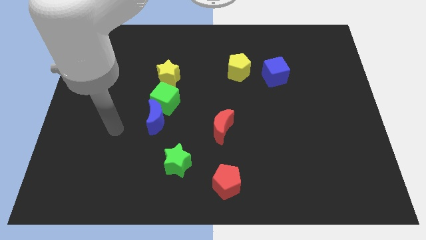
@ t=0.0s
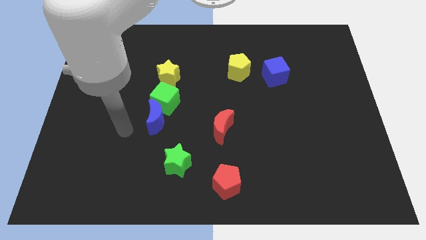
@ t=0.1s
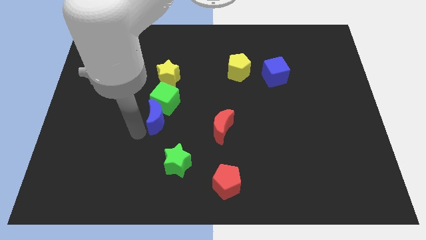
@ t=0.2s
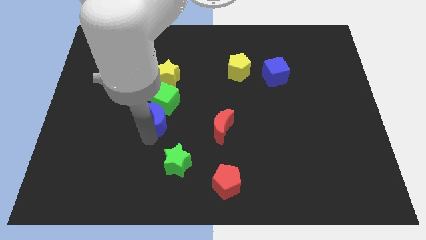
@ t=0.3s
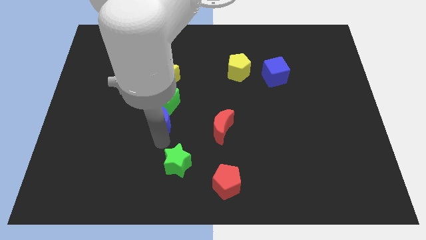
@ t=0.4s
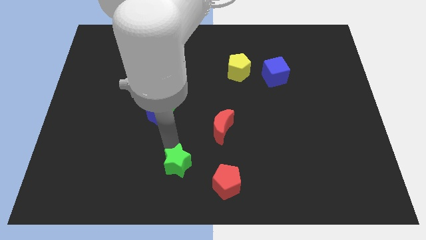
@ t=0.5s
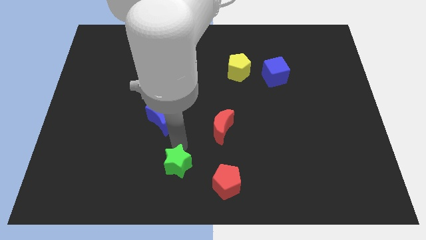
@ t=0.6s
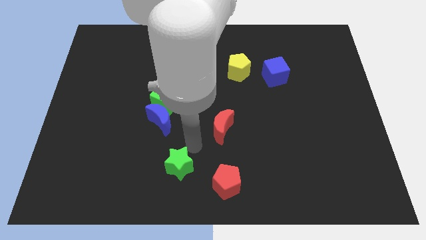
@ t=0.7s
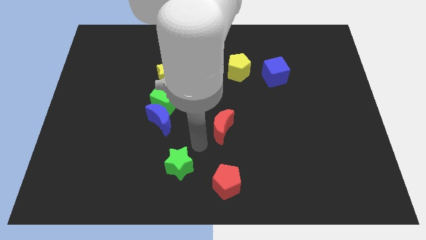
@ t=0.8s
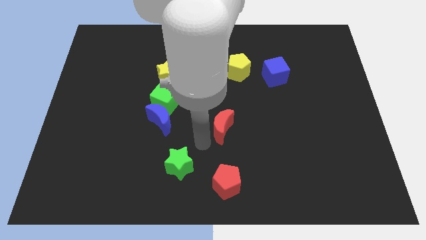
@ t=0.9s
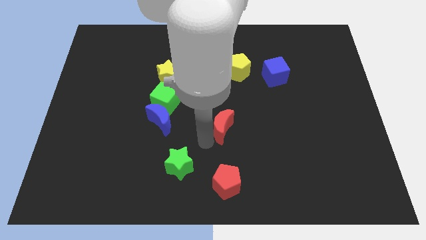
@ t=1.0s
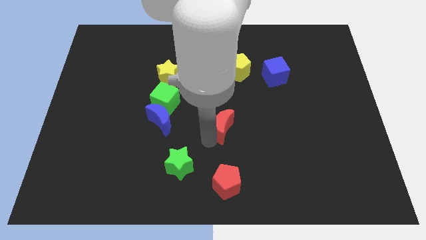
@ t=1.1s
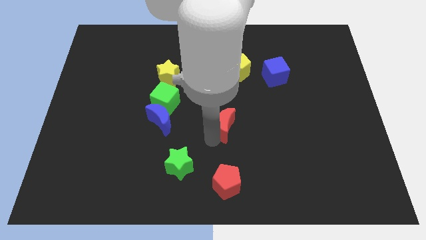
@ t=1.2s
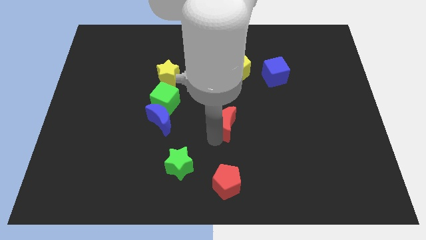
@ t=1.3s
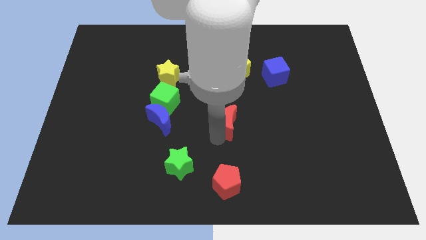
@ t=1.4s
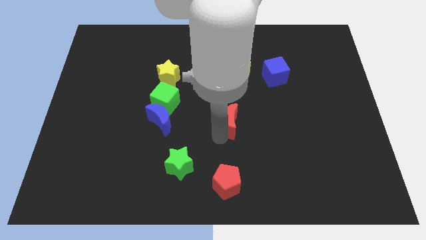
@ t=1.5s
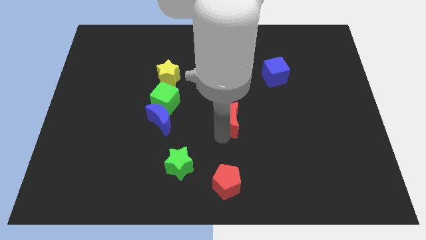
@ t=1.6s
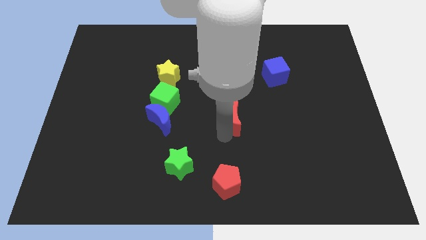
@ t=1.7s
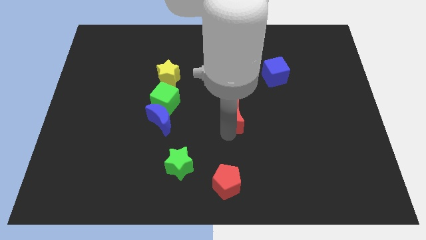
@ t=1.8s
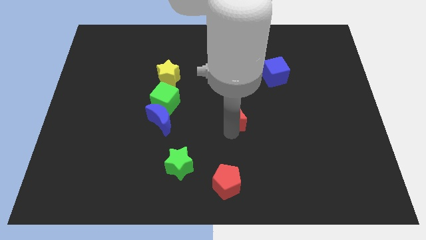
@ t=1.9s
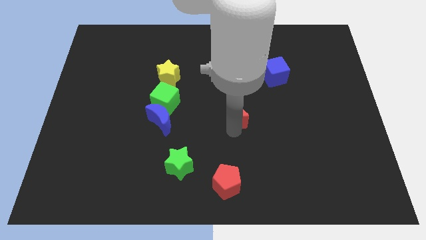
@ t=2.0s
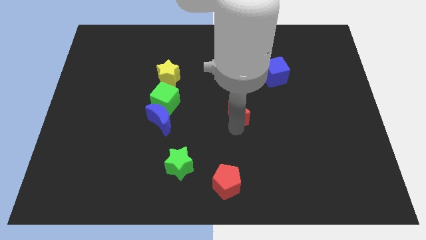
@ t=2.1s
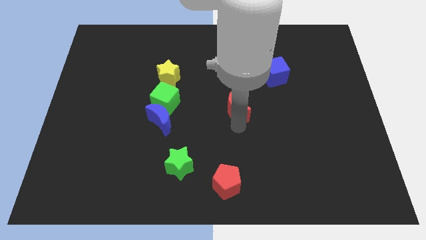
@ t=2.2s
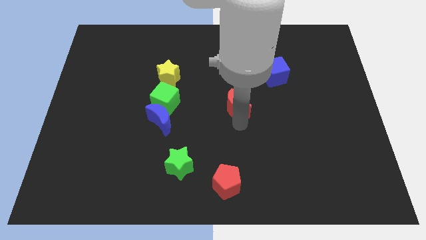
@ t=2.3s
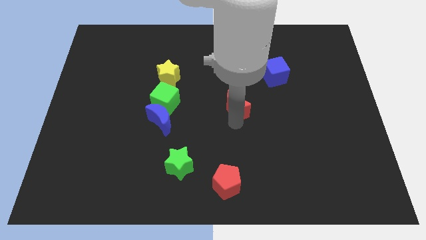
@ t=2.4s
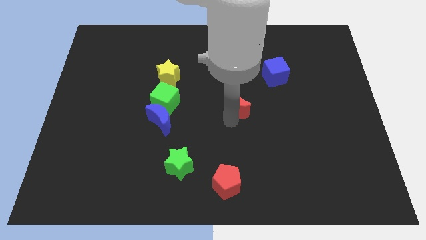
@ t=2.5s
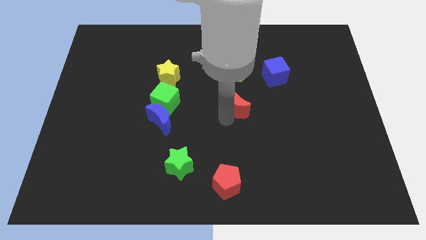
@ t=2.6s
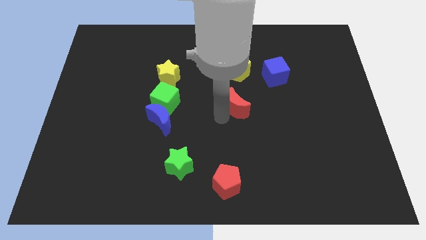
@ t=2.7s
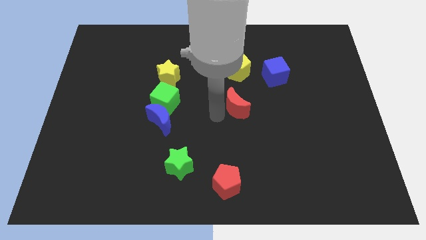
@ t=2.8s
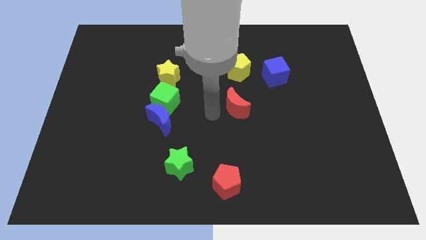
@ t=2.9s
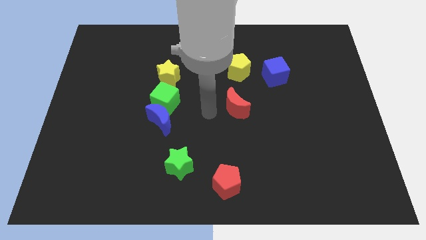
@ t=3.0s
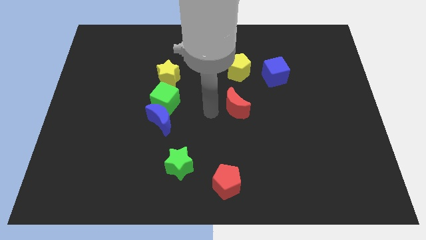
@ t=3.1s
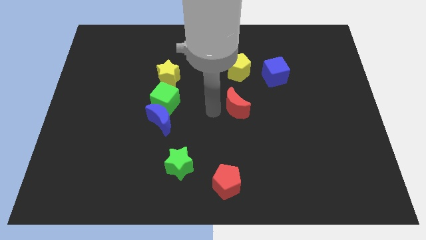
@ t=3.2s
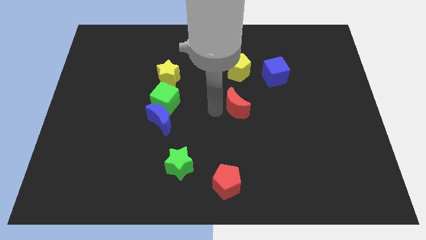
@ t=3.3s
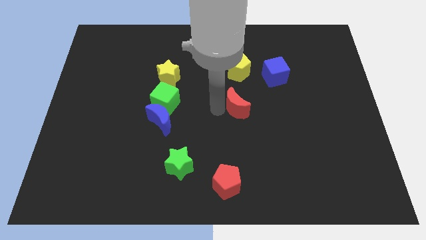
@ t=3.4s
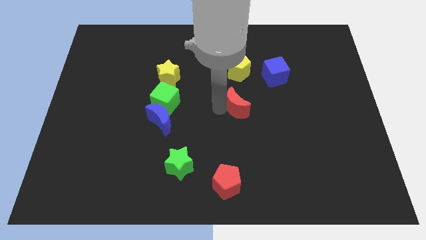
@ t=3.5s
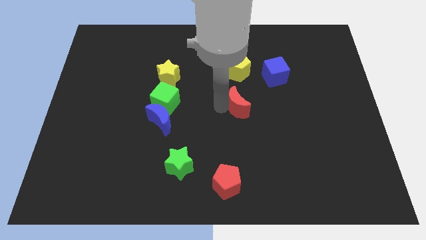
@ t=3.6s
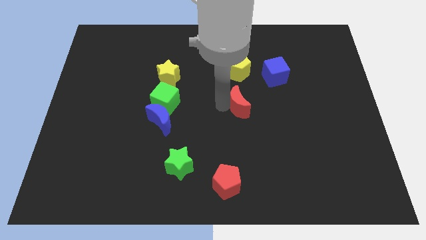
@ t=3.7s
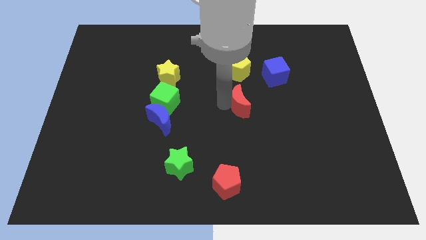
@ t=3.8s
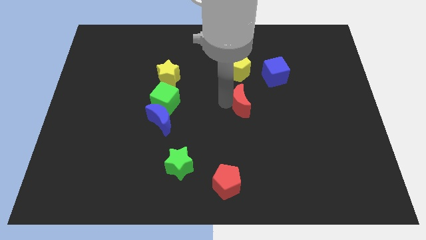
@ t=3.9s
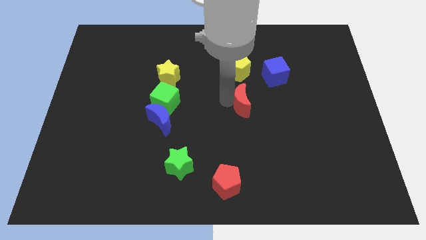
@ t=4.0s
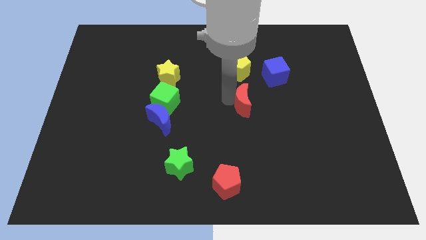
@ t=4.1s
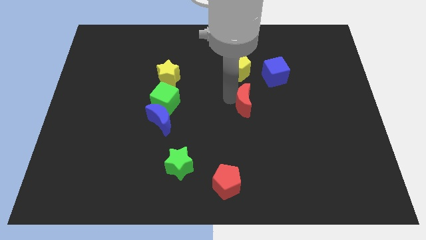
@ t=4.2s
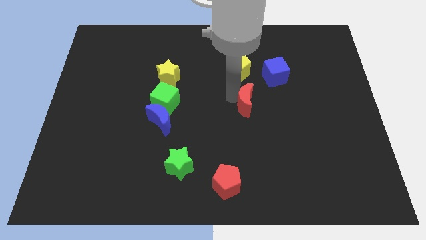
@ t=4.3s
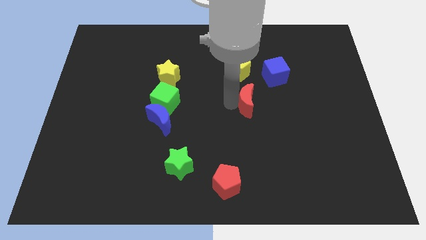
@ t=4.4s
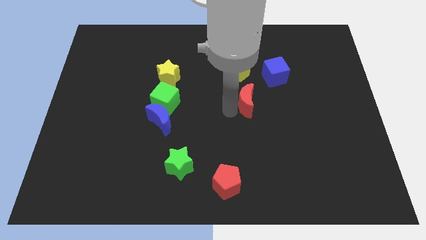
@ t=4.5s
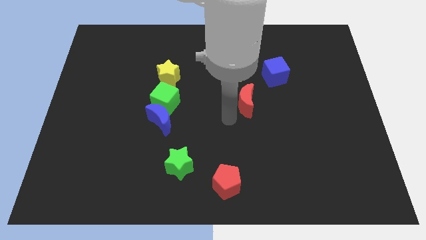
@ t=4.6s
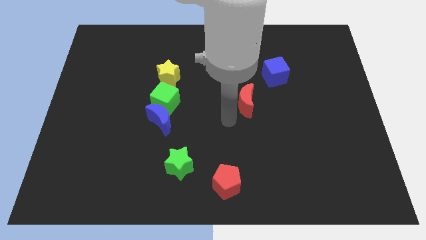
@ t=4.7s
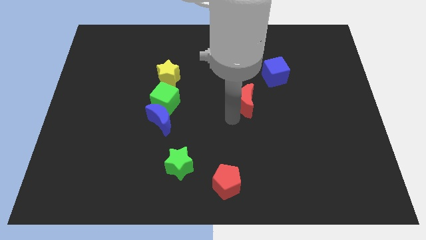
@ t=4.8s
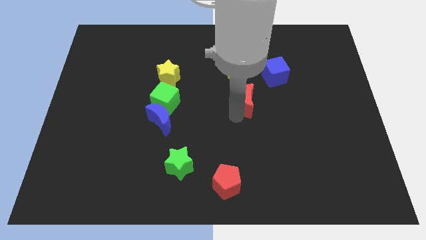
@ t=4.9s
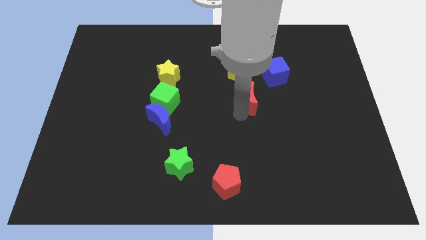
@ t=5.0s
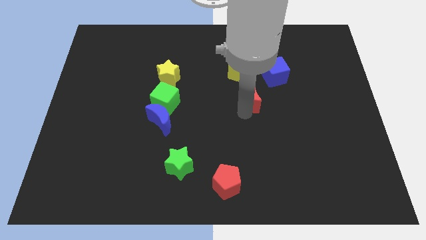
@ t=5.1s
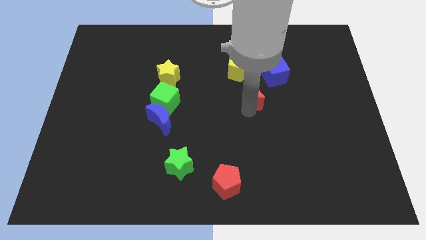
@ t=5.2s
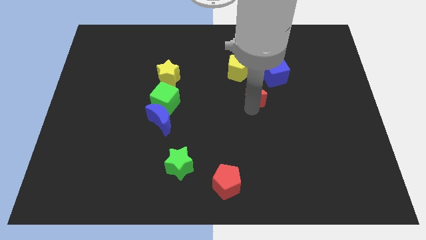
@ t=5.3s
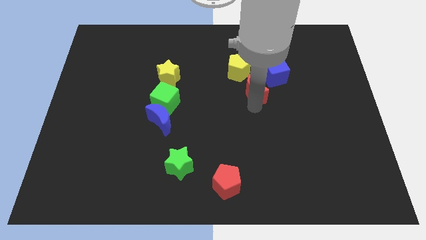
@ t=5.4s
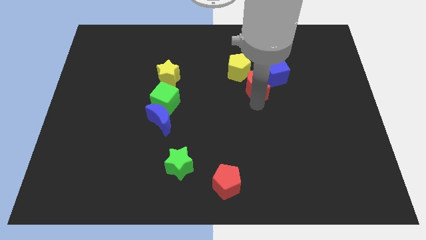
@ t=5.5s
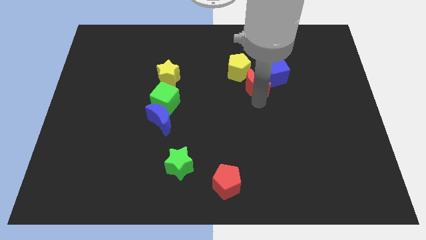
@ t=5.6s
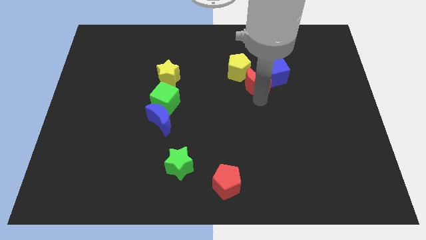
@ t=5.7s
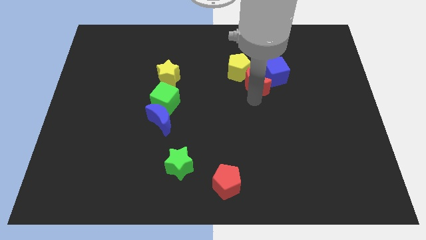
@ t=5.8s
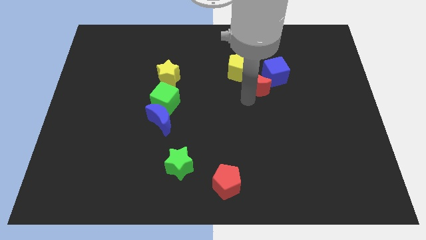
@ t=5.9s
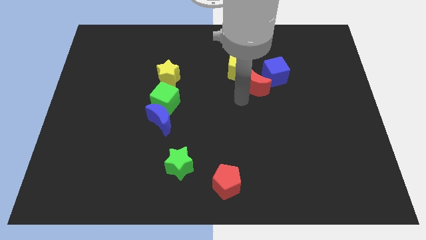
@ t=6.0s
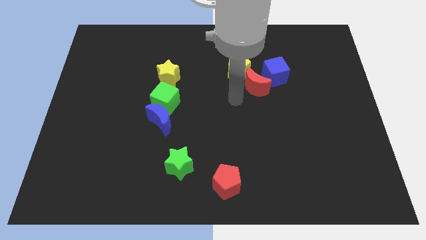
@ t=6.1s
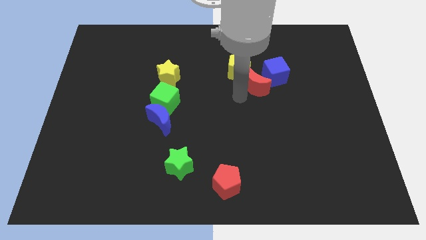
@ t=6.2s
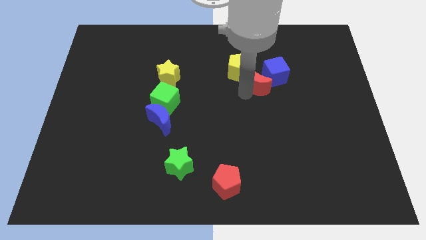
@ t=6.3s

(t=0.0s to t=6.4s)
move the red moon towards the blue cube
